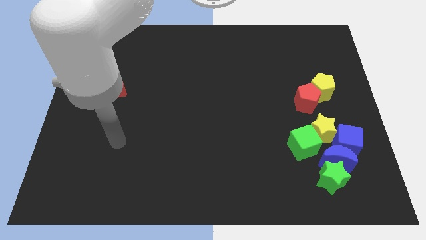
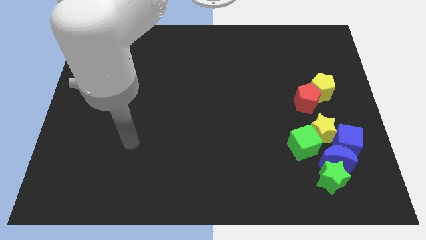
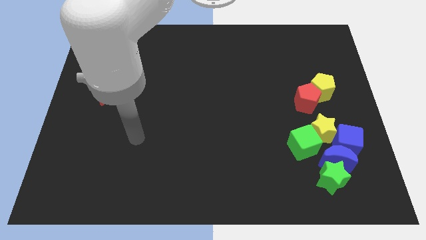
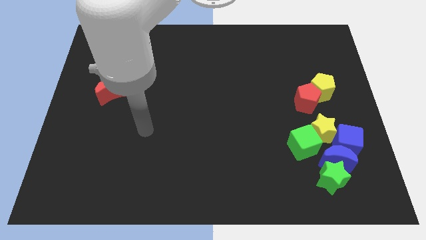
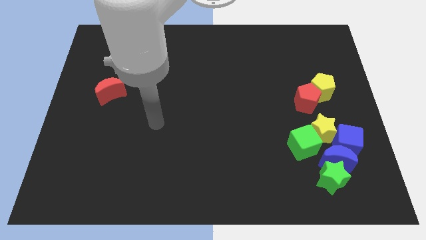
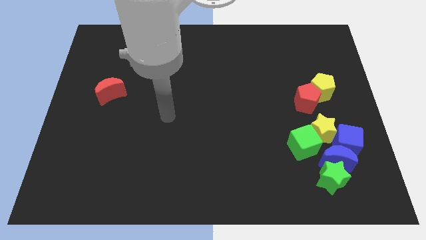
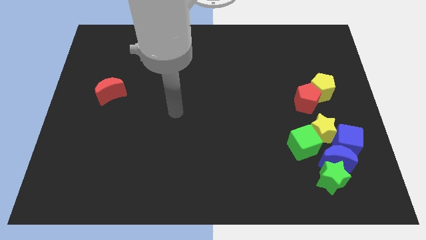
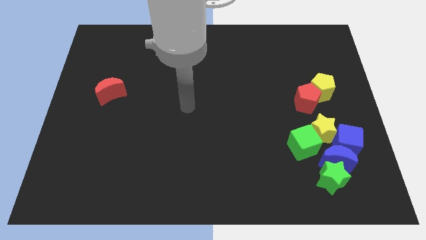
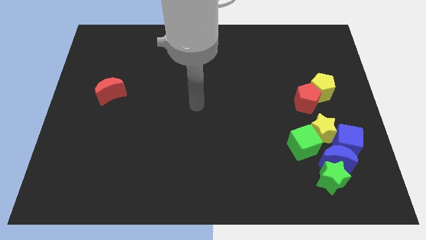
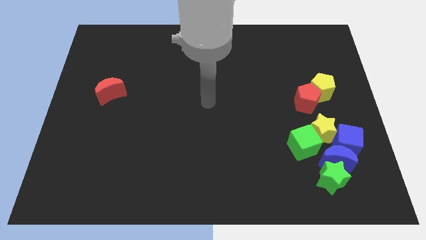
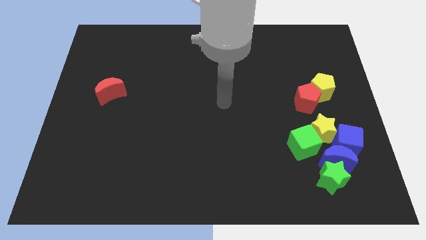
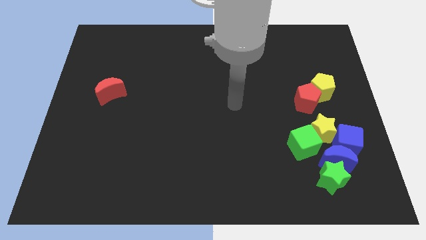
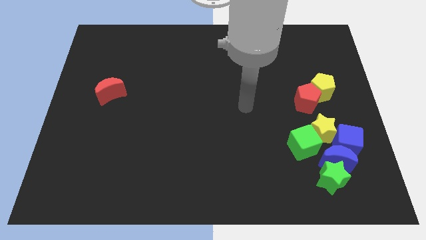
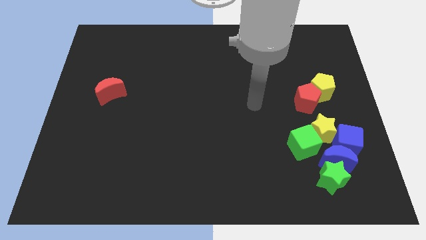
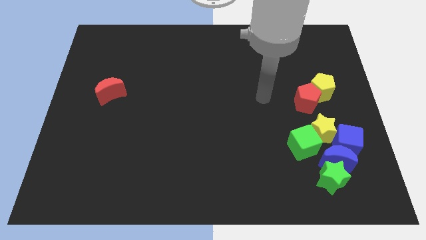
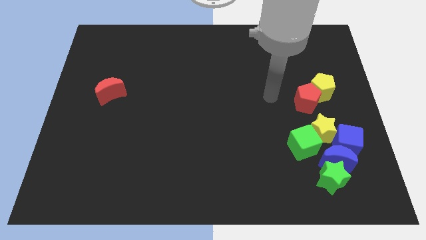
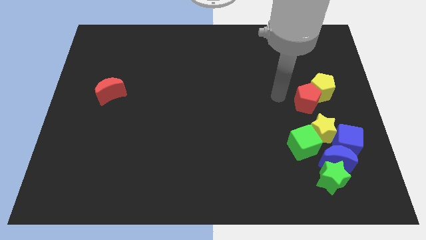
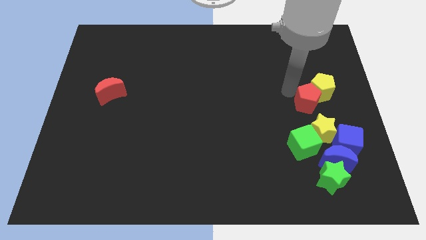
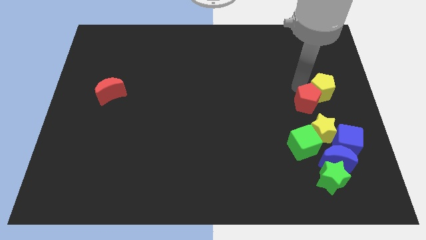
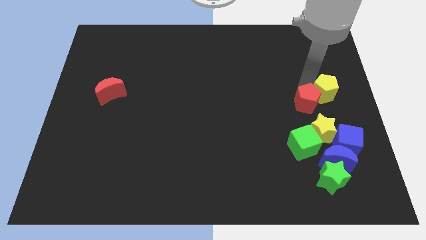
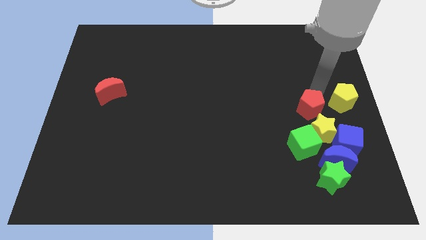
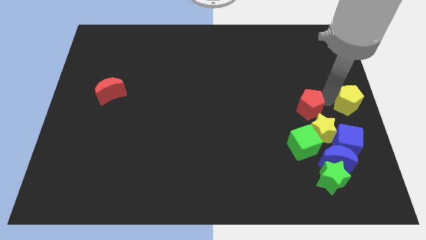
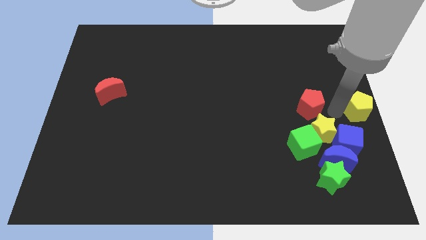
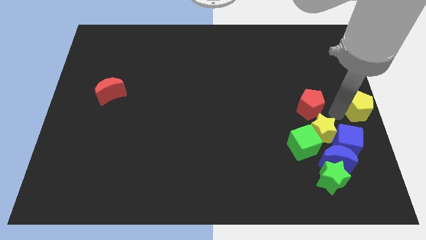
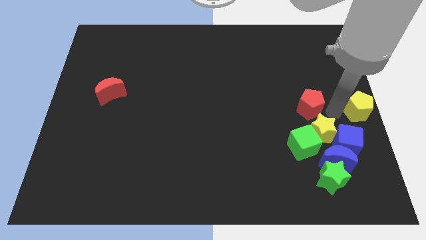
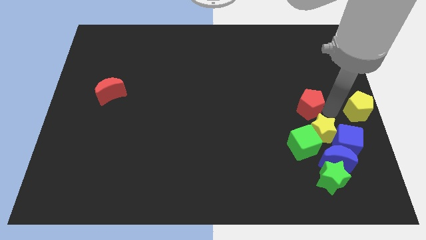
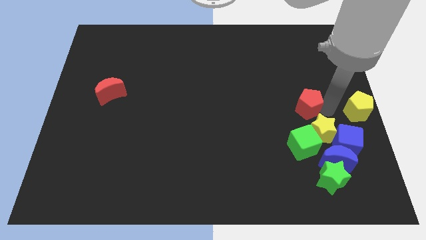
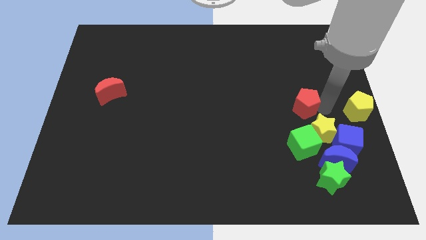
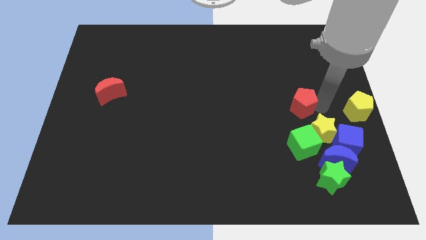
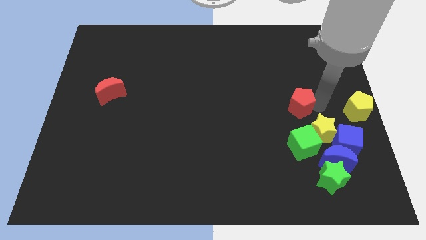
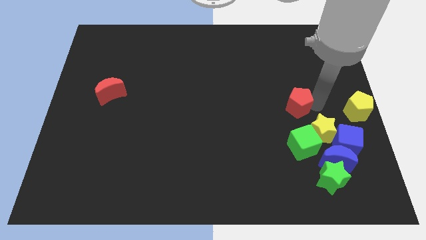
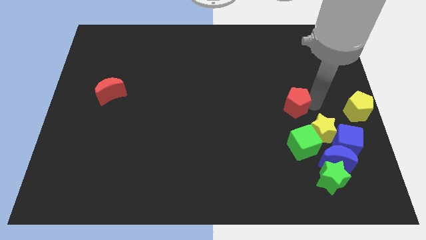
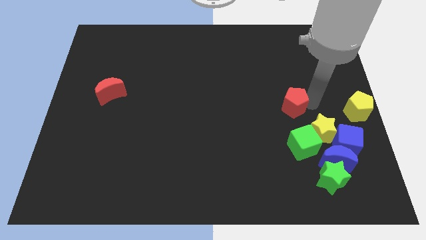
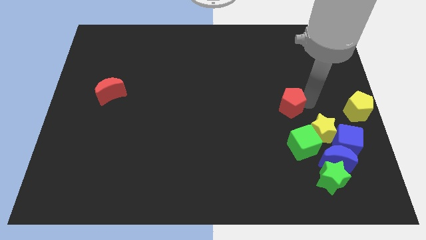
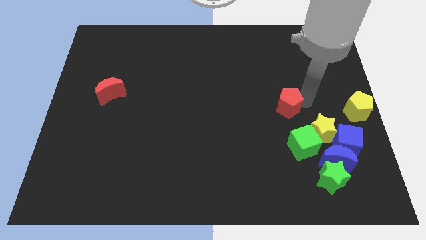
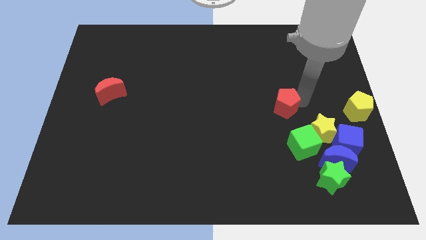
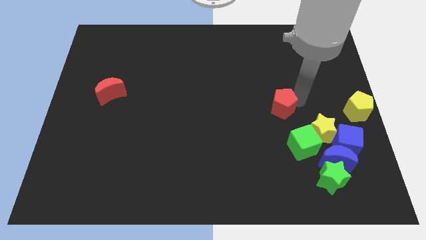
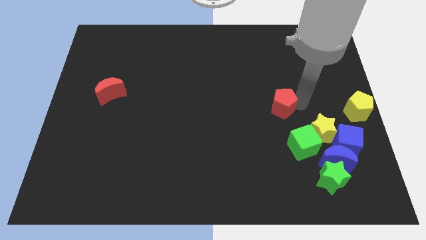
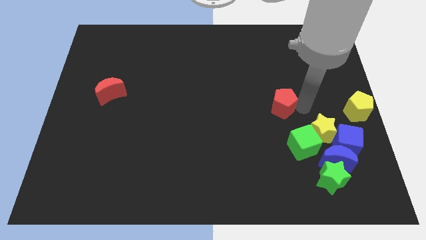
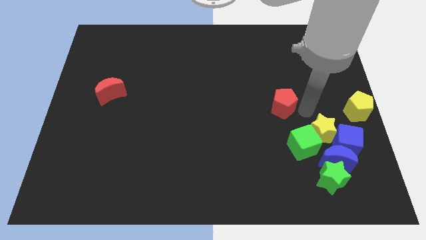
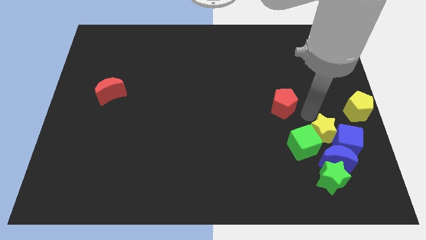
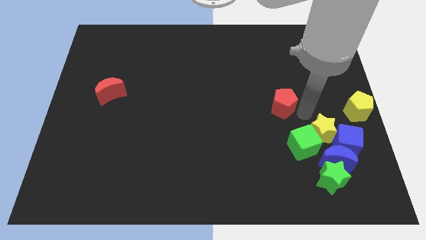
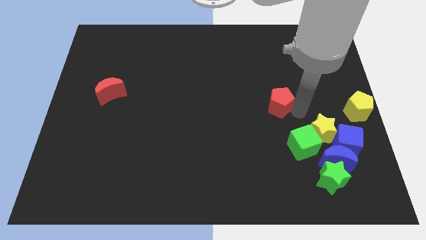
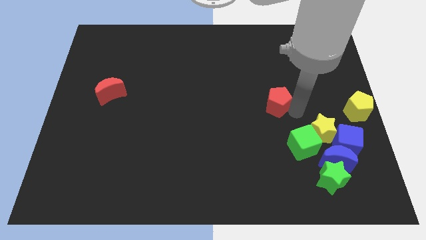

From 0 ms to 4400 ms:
slide the red pentagon somewhat left

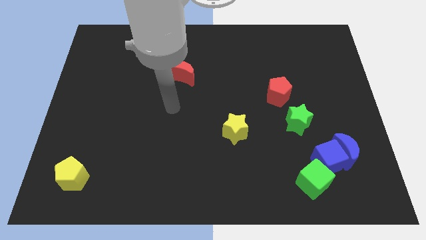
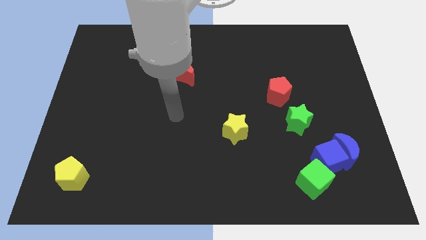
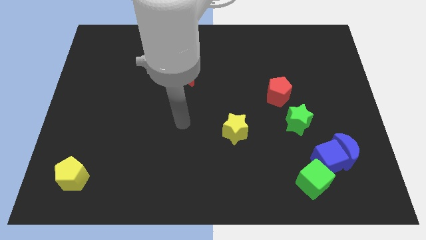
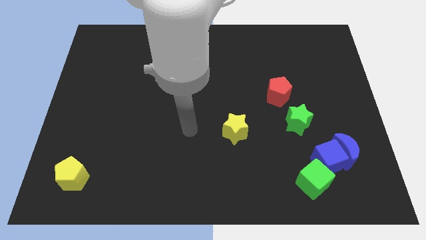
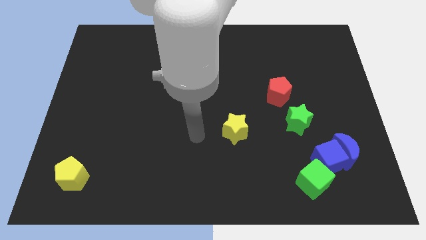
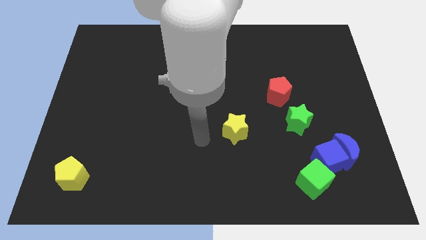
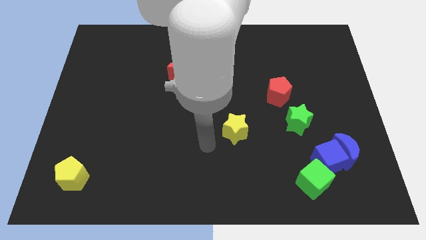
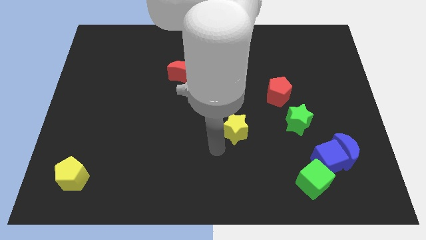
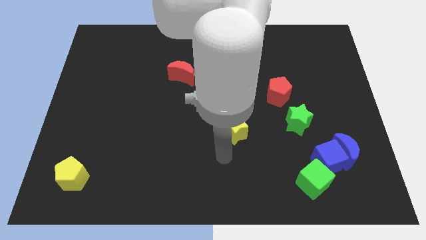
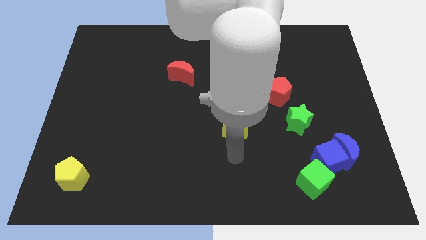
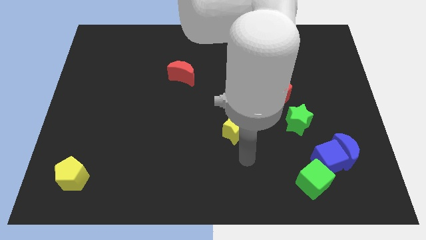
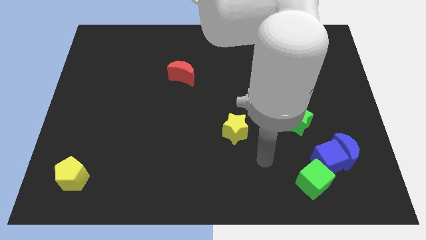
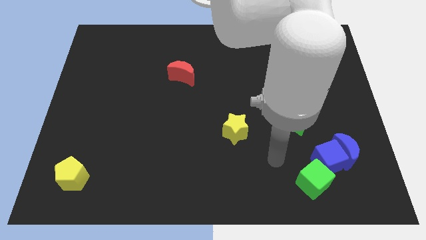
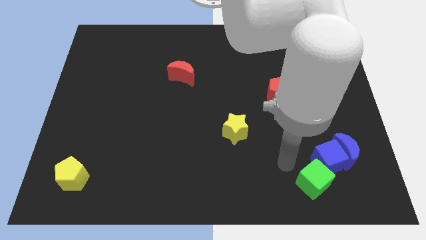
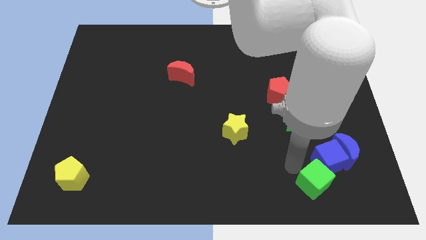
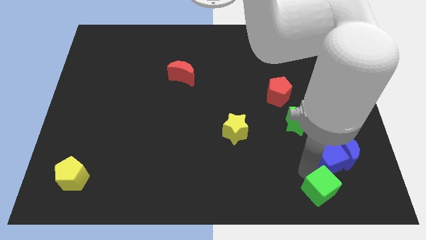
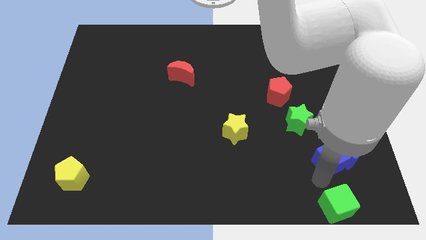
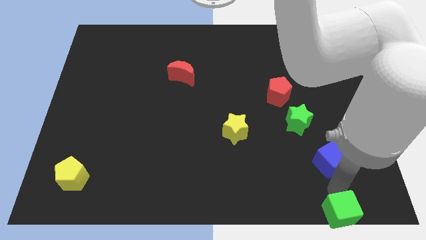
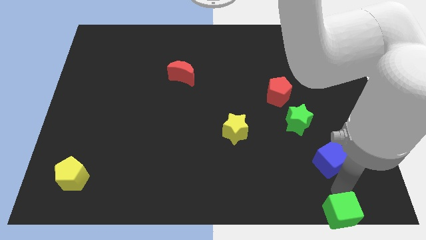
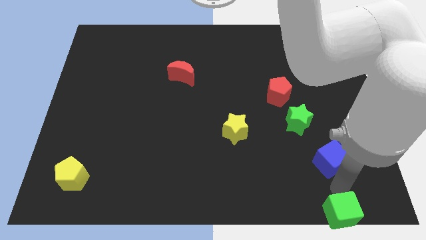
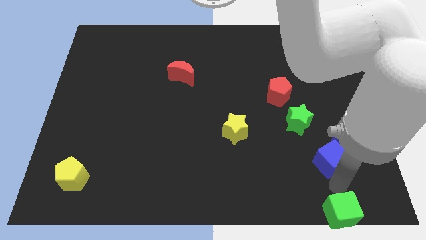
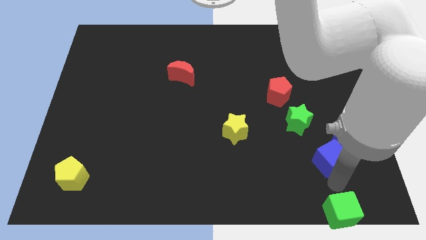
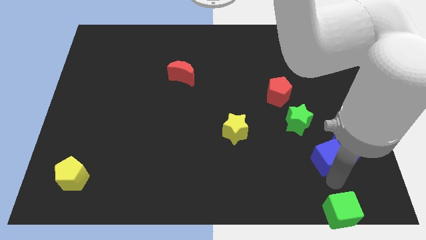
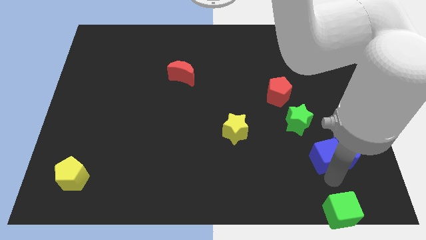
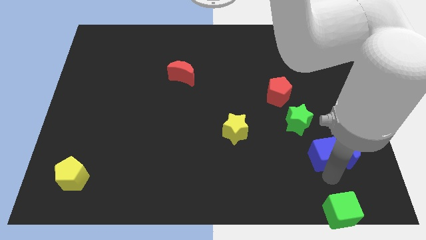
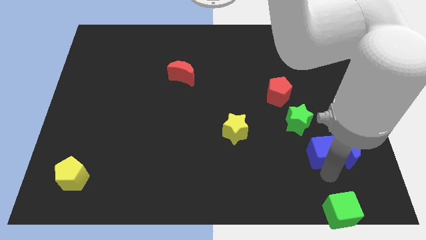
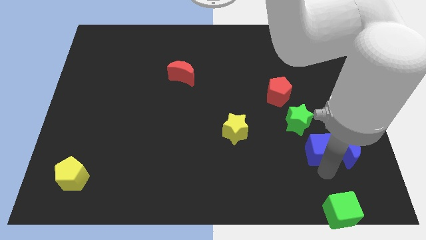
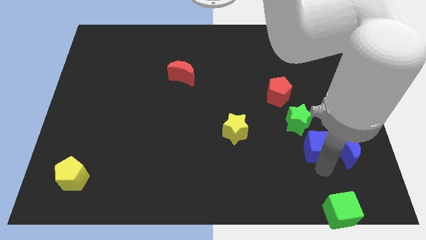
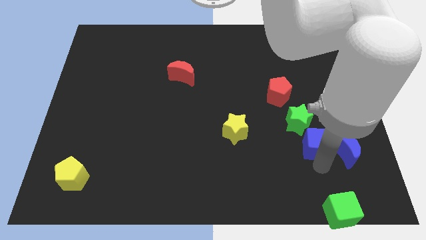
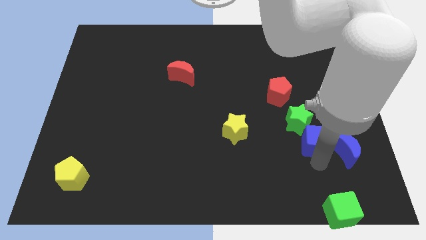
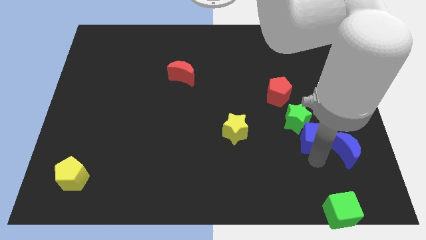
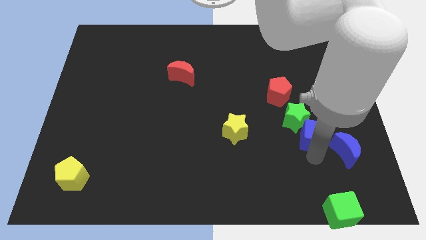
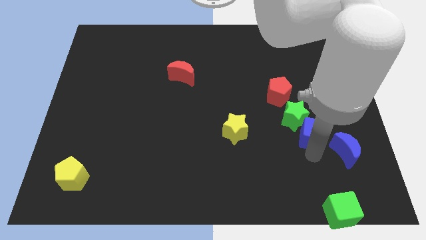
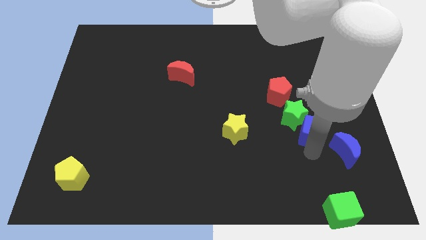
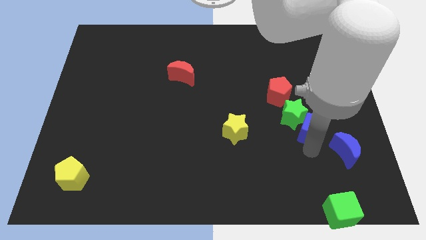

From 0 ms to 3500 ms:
slide the blue cube a little bit upwards
